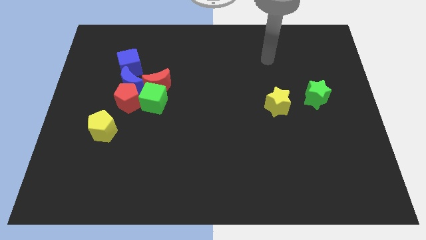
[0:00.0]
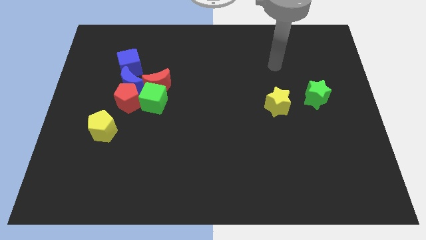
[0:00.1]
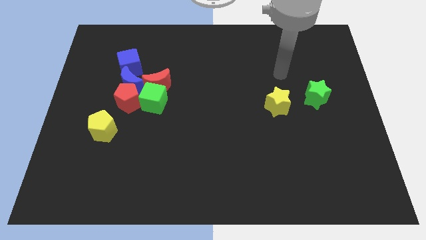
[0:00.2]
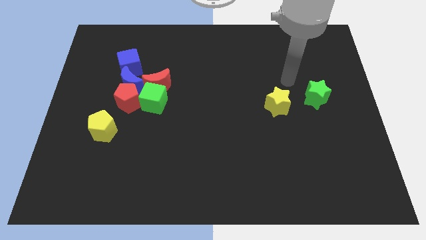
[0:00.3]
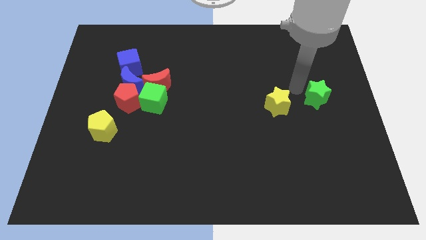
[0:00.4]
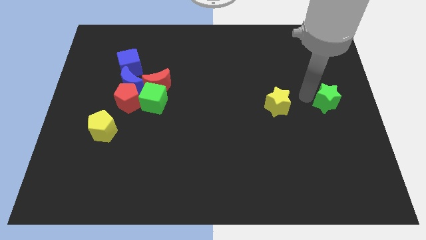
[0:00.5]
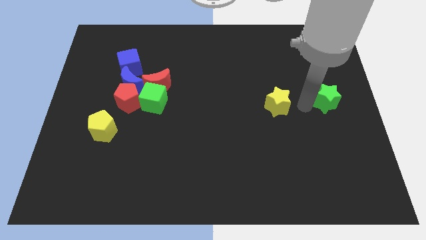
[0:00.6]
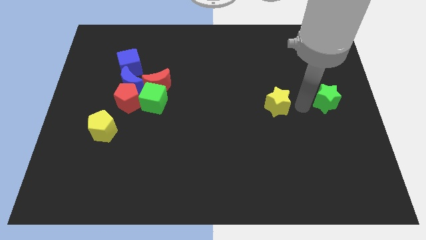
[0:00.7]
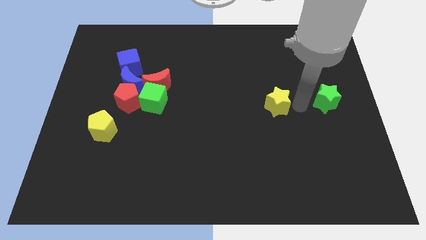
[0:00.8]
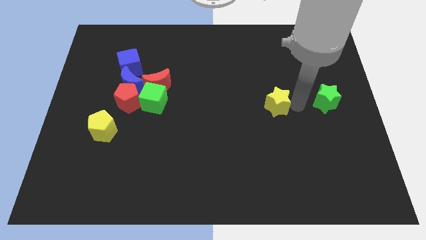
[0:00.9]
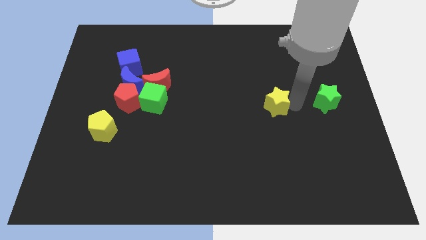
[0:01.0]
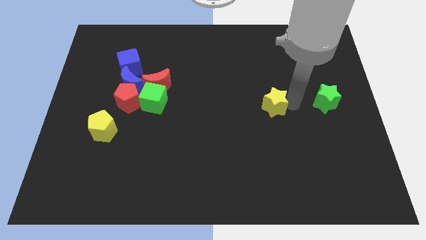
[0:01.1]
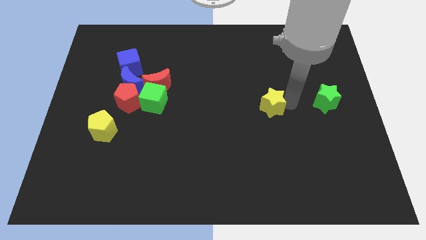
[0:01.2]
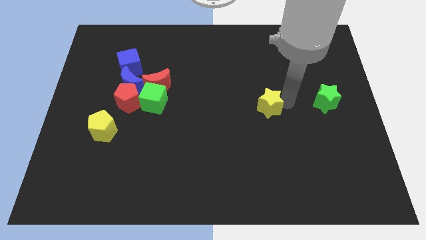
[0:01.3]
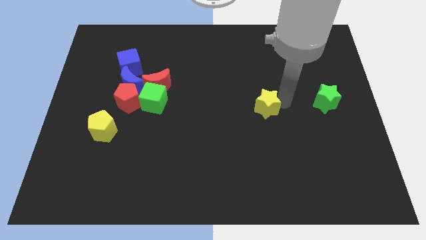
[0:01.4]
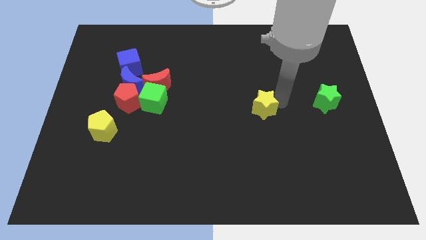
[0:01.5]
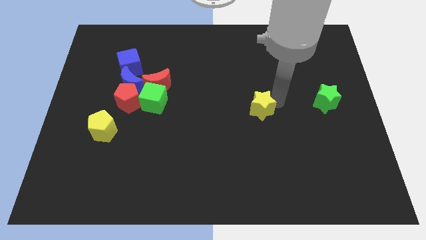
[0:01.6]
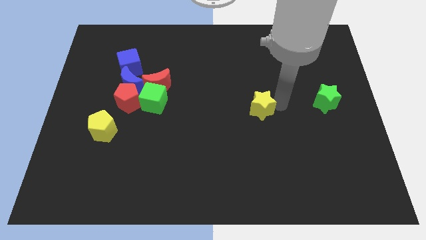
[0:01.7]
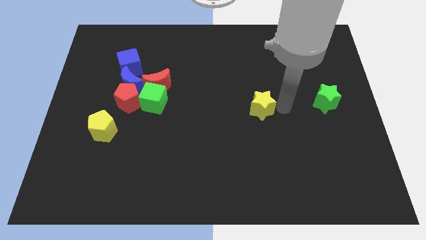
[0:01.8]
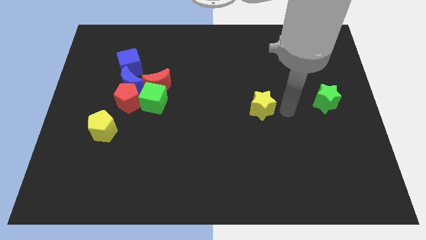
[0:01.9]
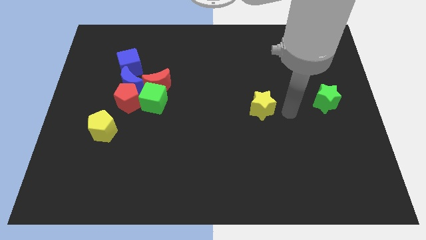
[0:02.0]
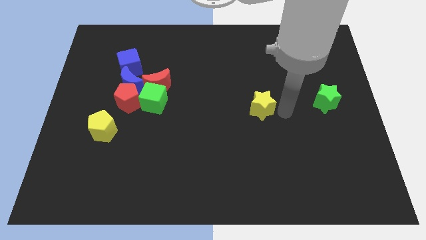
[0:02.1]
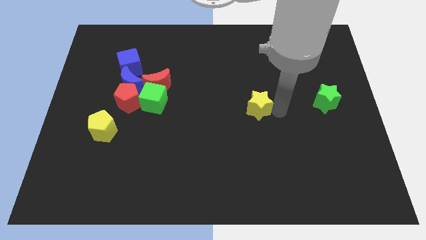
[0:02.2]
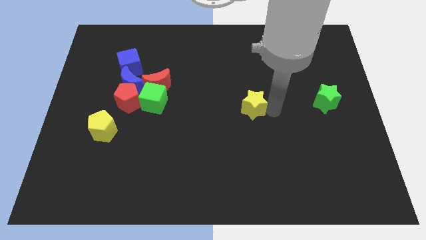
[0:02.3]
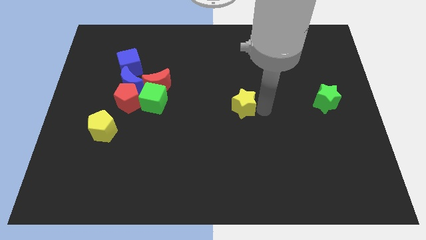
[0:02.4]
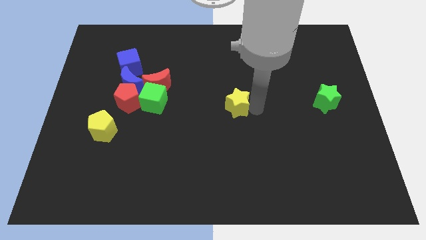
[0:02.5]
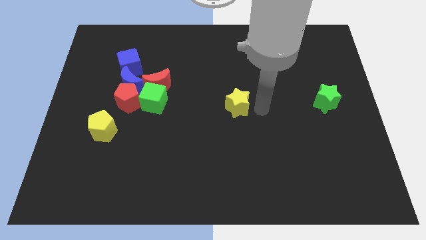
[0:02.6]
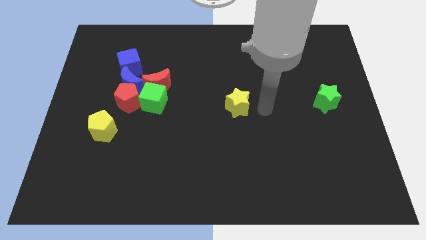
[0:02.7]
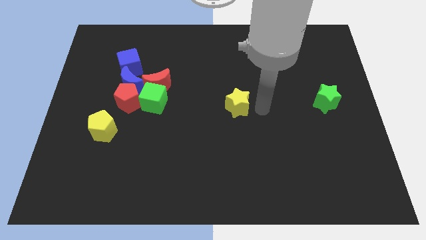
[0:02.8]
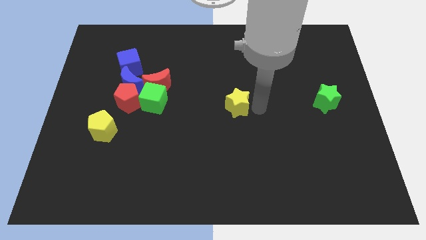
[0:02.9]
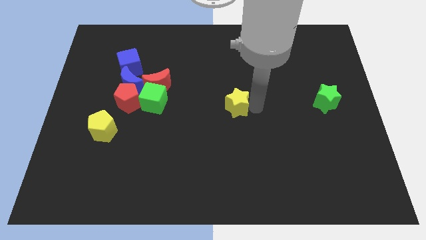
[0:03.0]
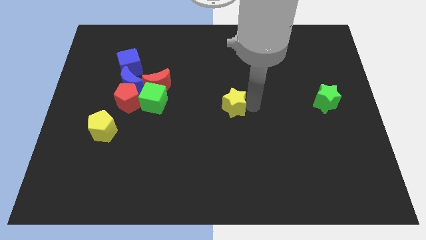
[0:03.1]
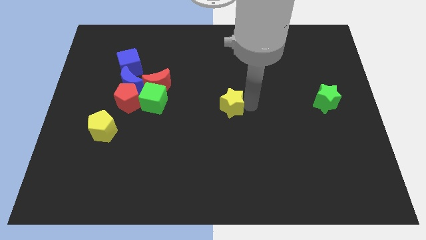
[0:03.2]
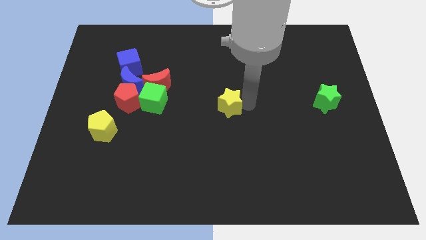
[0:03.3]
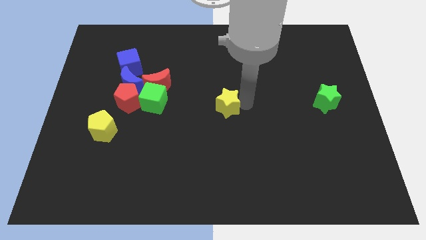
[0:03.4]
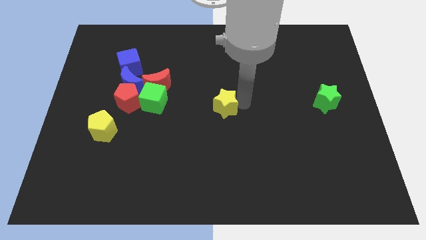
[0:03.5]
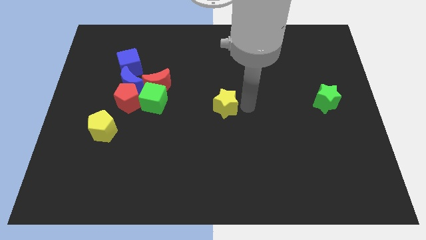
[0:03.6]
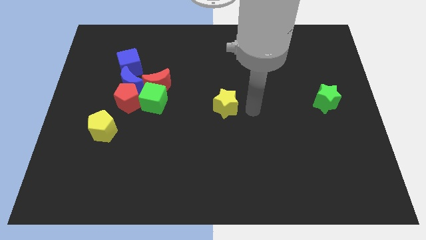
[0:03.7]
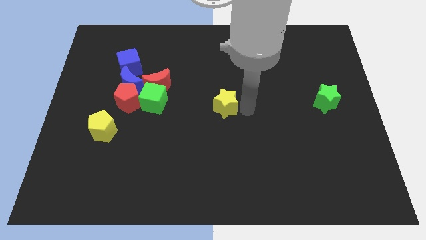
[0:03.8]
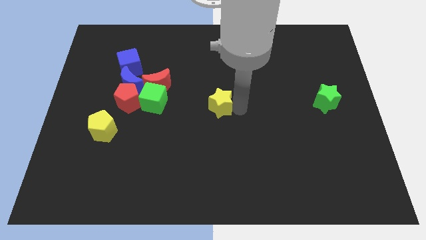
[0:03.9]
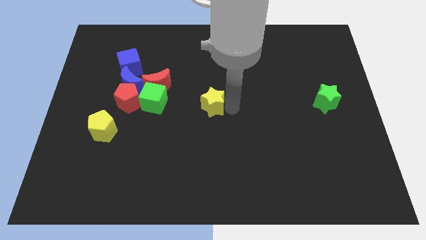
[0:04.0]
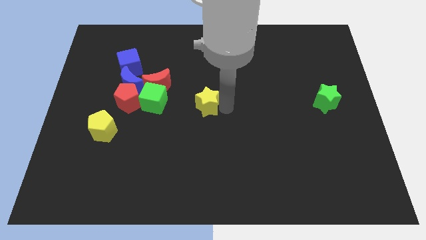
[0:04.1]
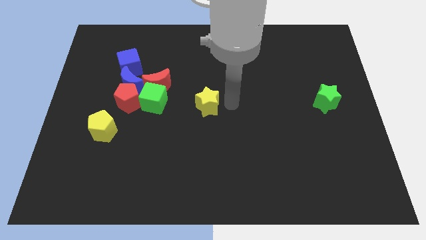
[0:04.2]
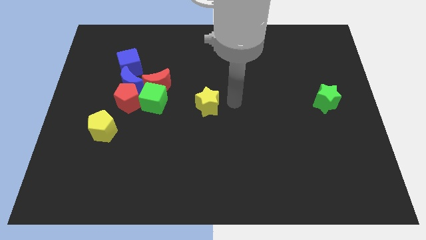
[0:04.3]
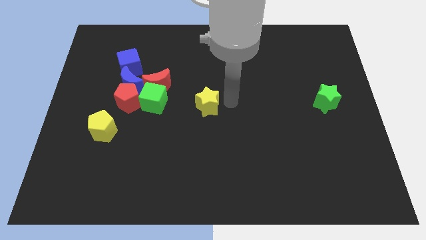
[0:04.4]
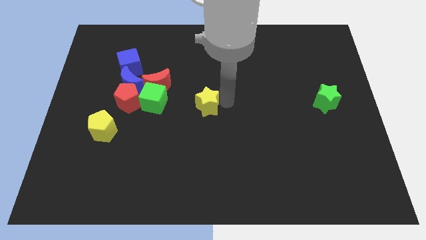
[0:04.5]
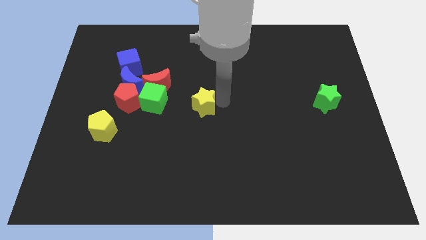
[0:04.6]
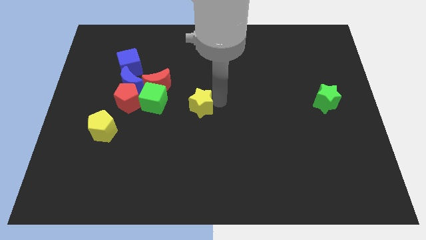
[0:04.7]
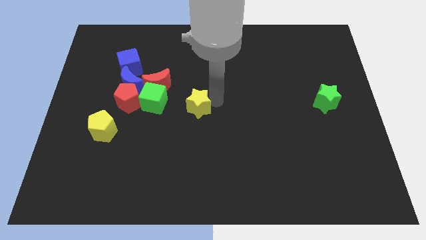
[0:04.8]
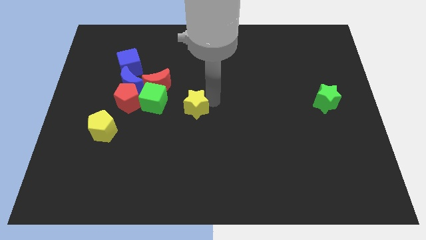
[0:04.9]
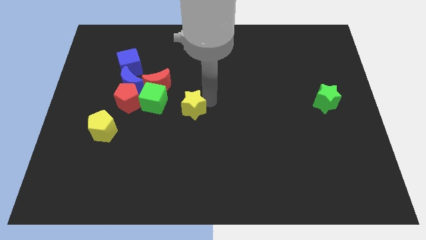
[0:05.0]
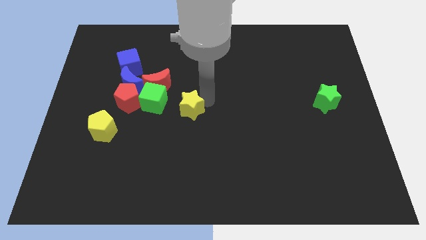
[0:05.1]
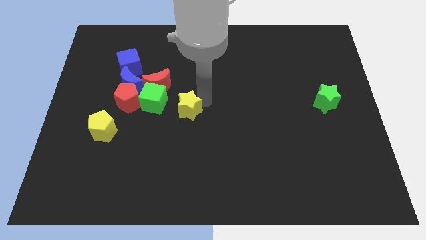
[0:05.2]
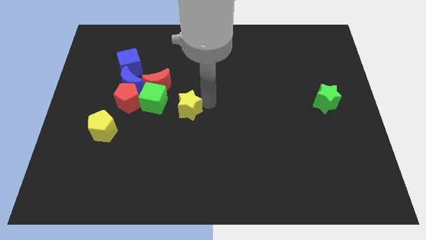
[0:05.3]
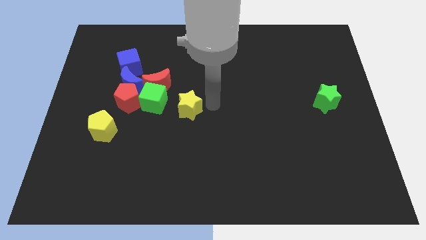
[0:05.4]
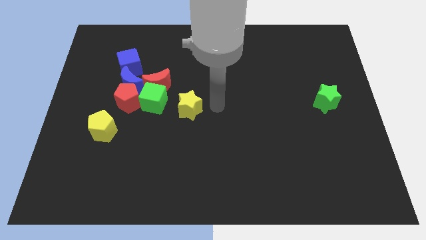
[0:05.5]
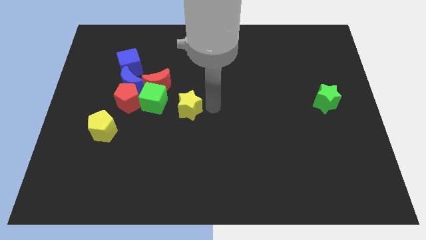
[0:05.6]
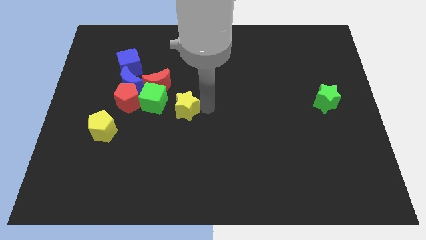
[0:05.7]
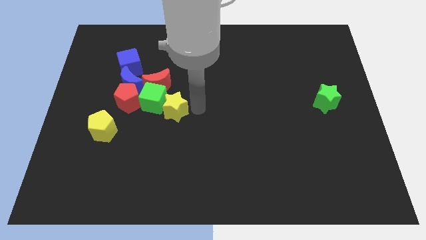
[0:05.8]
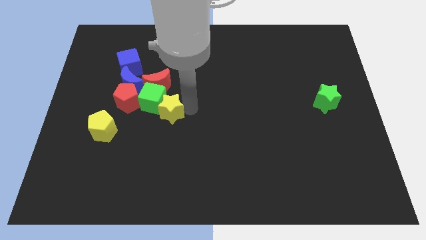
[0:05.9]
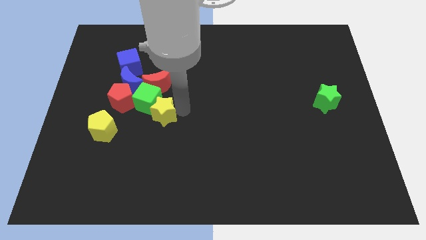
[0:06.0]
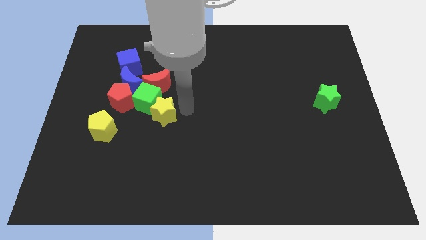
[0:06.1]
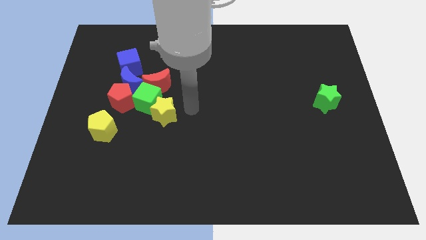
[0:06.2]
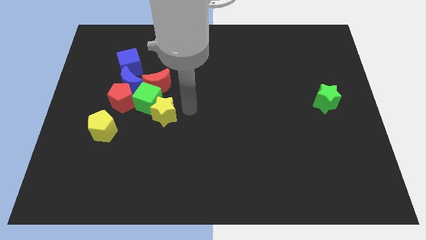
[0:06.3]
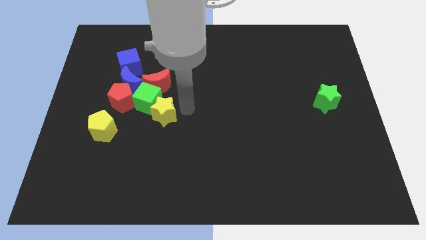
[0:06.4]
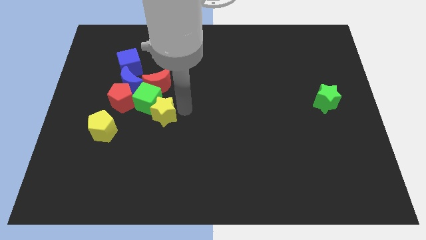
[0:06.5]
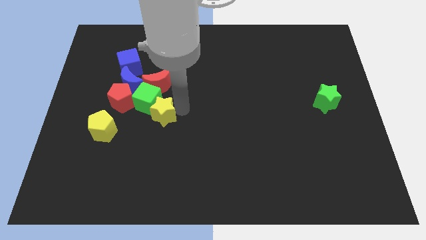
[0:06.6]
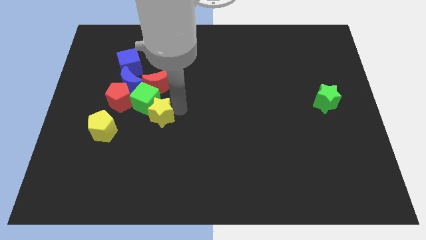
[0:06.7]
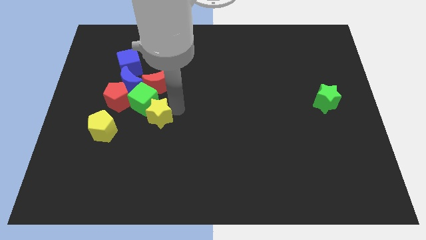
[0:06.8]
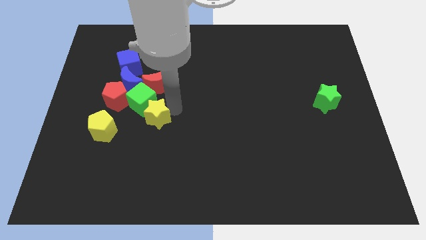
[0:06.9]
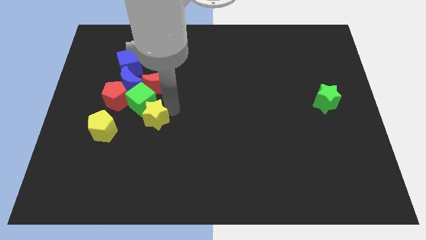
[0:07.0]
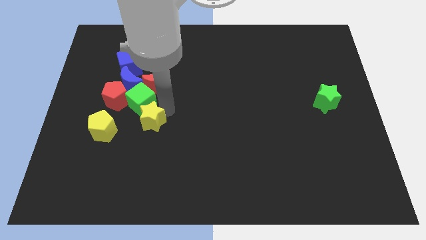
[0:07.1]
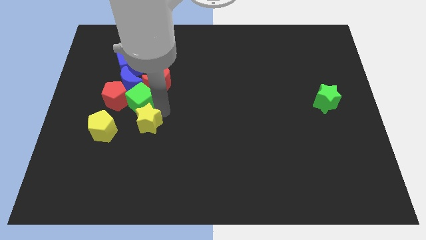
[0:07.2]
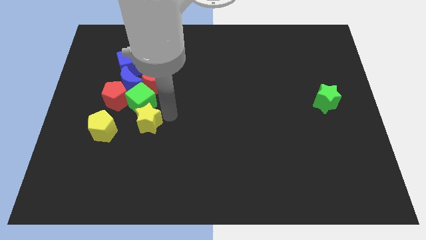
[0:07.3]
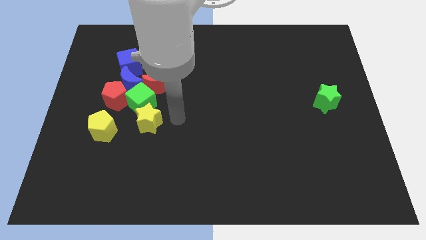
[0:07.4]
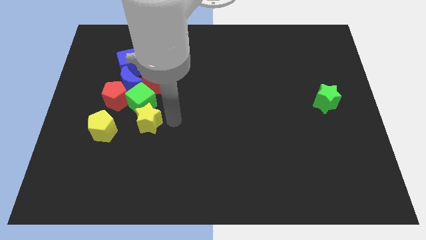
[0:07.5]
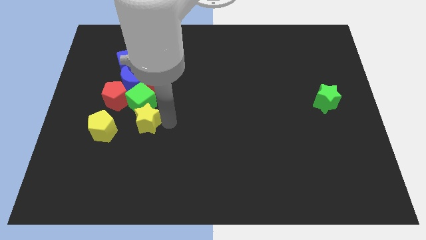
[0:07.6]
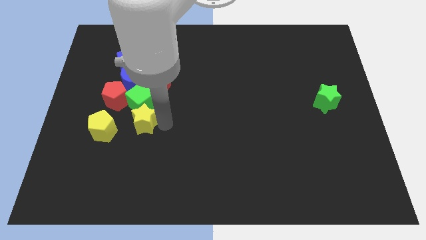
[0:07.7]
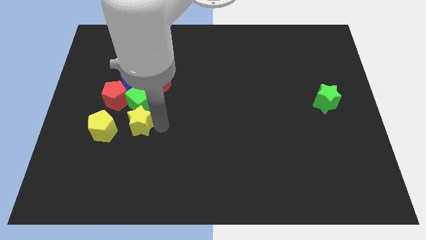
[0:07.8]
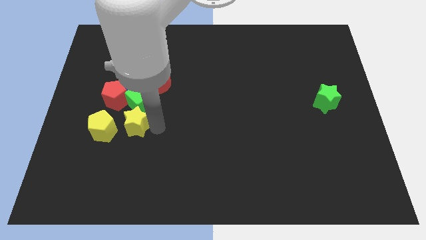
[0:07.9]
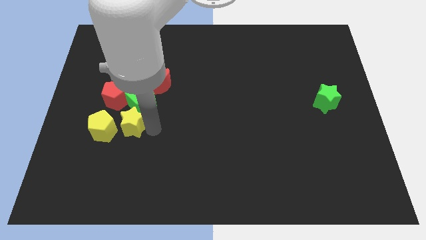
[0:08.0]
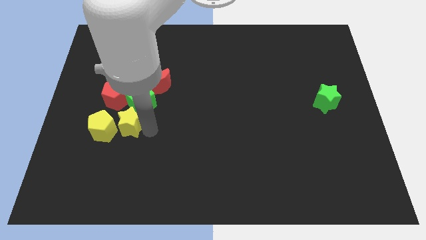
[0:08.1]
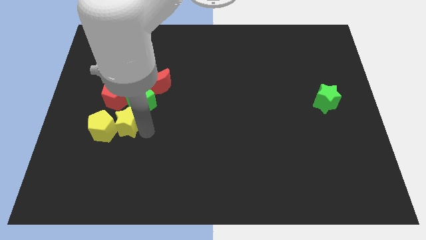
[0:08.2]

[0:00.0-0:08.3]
push the yellow star next to the yellow pentagon
